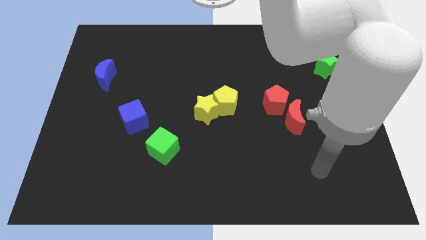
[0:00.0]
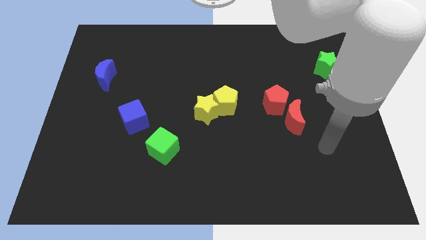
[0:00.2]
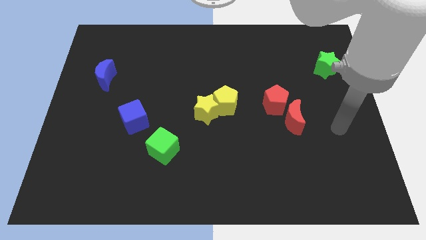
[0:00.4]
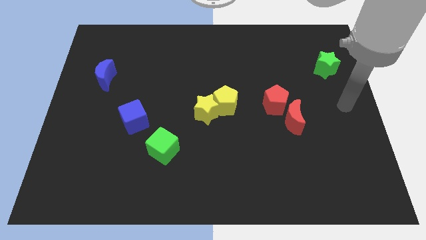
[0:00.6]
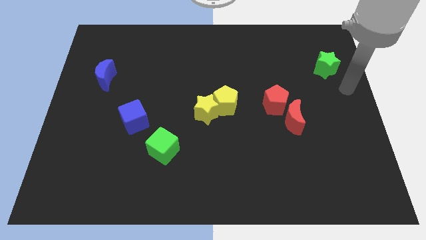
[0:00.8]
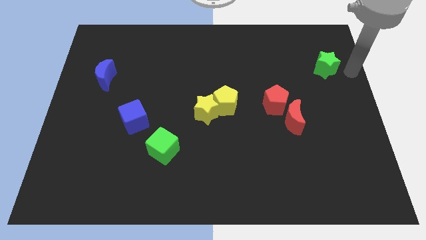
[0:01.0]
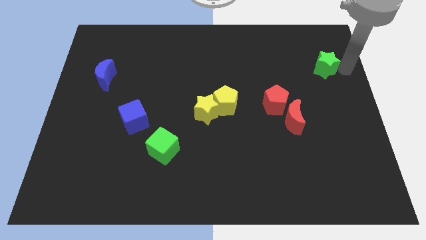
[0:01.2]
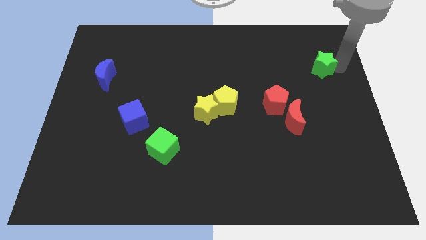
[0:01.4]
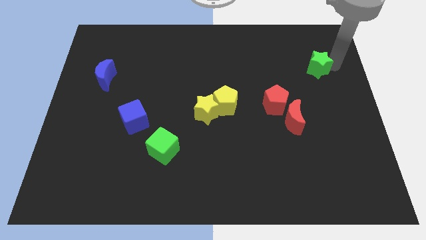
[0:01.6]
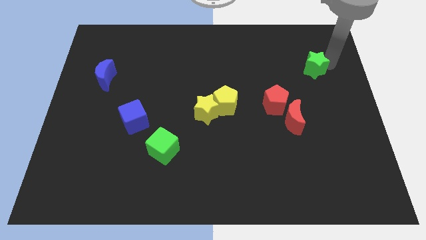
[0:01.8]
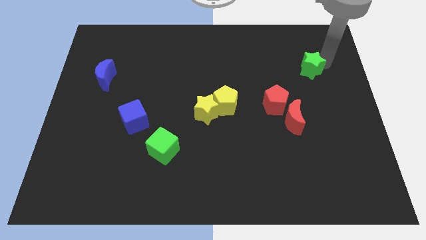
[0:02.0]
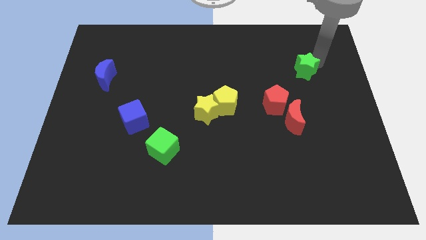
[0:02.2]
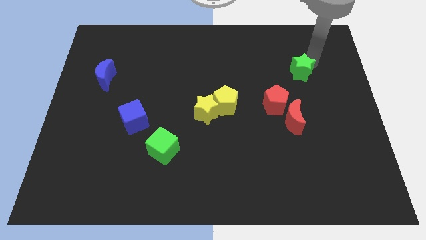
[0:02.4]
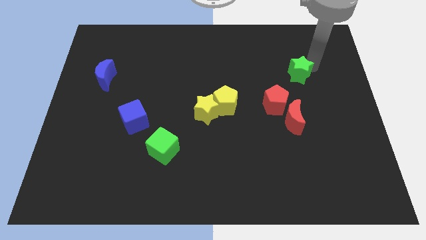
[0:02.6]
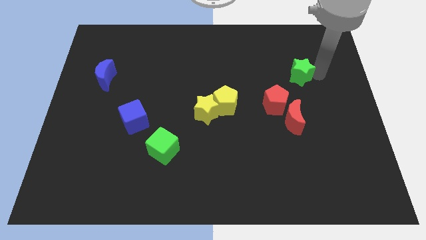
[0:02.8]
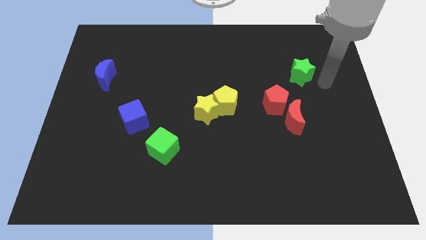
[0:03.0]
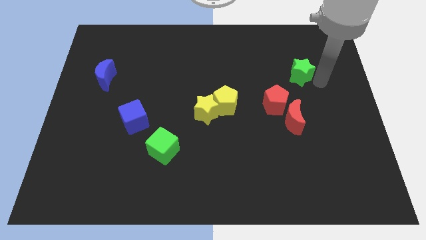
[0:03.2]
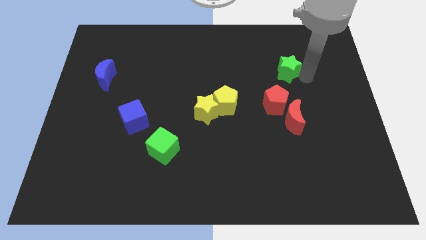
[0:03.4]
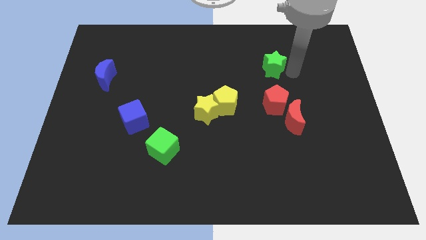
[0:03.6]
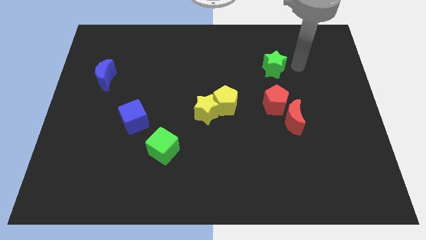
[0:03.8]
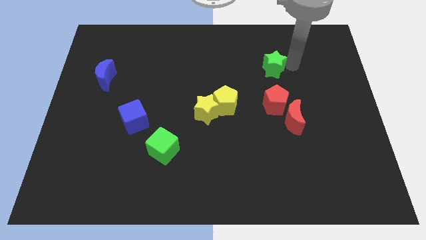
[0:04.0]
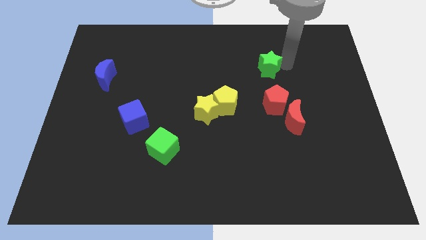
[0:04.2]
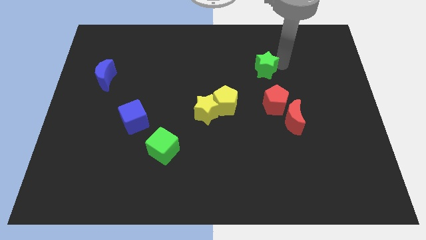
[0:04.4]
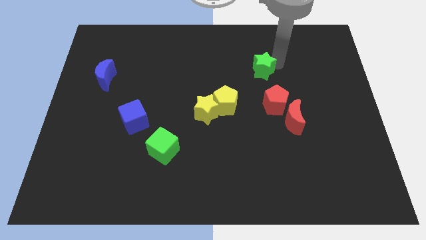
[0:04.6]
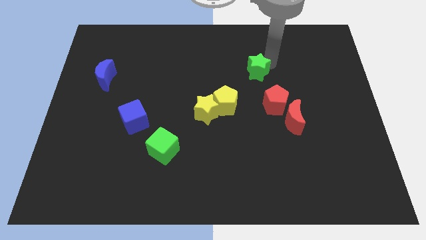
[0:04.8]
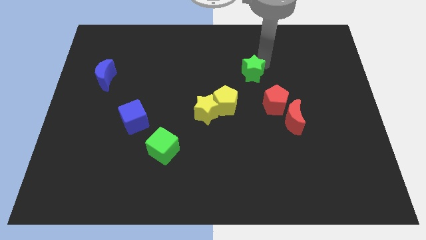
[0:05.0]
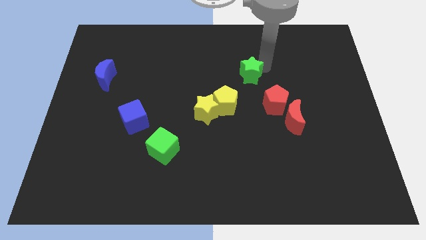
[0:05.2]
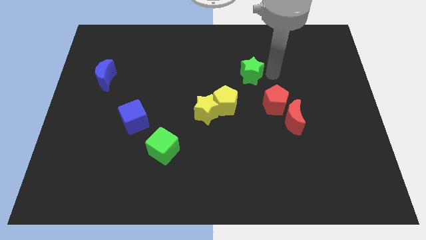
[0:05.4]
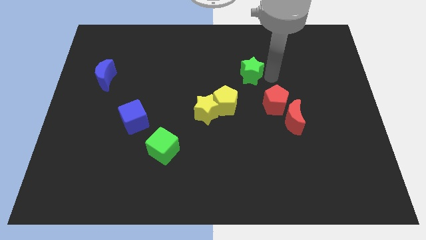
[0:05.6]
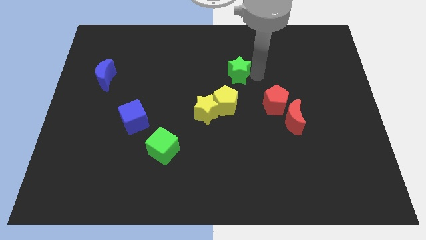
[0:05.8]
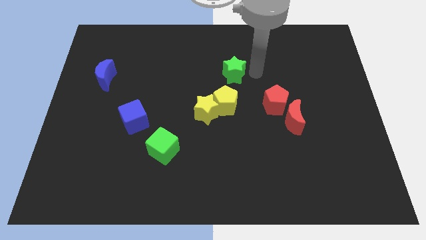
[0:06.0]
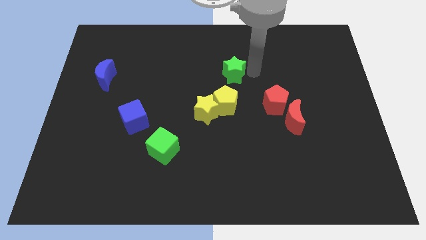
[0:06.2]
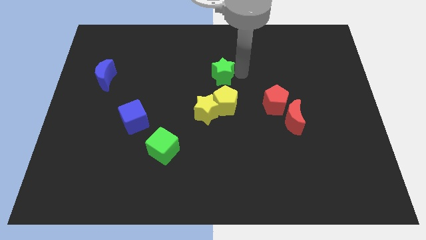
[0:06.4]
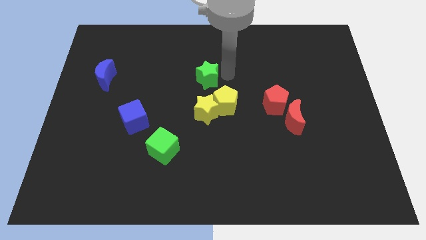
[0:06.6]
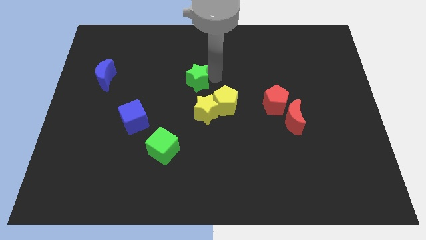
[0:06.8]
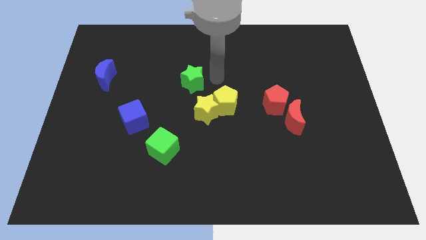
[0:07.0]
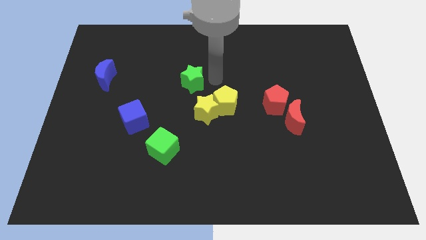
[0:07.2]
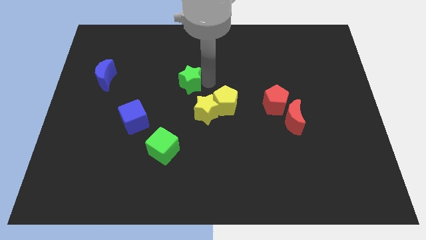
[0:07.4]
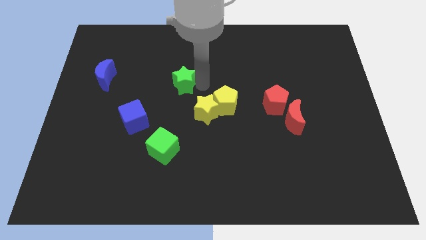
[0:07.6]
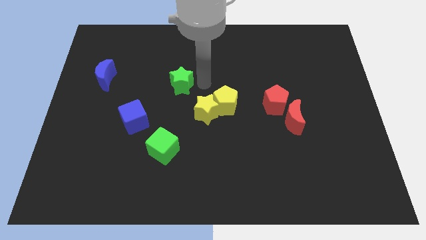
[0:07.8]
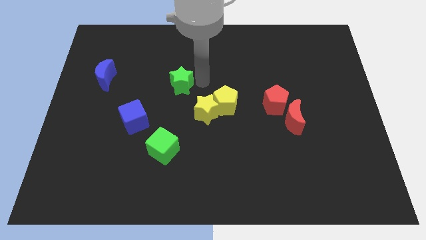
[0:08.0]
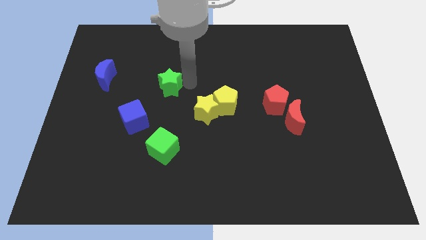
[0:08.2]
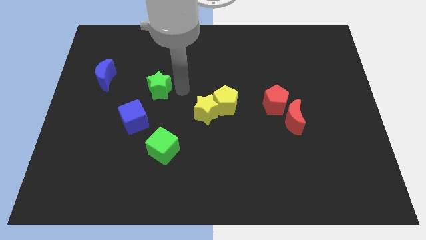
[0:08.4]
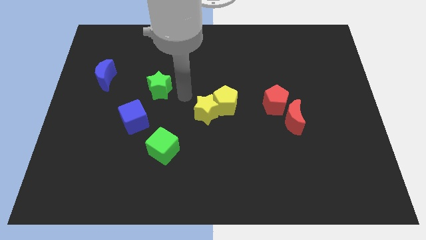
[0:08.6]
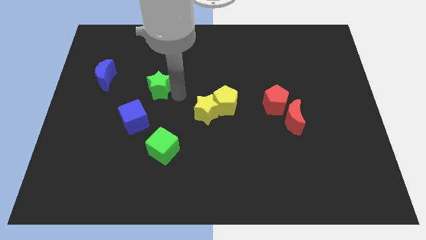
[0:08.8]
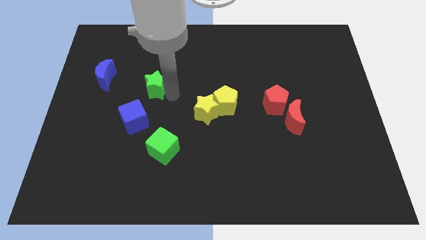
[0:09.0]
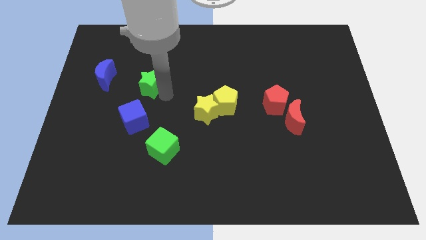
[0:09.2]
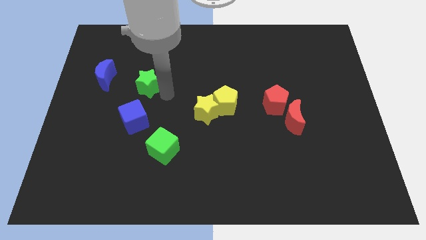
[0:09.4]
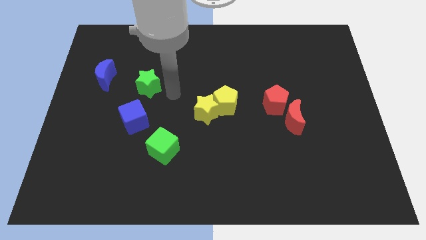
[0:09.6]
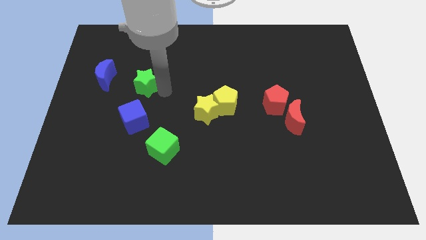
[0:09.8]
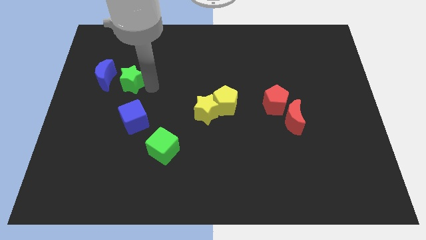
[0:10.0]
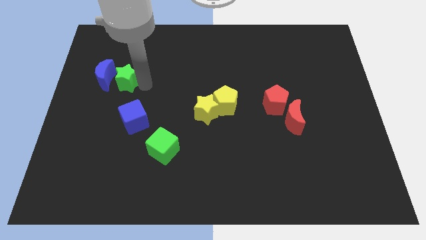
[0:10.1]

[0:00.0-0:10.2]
move the green star next to the blue moon

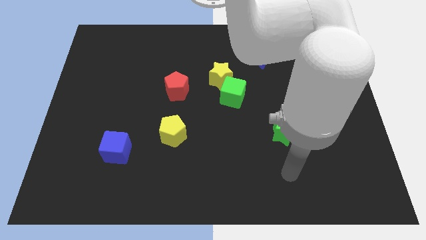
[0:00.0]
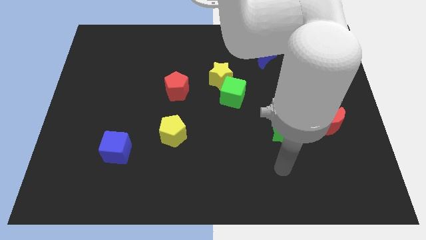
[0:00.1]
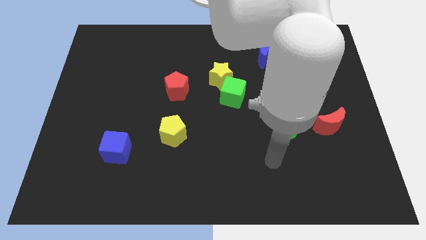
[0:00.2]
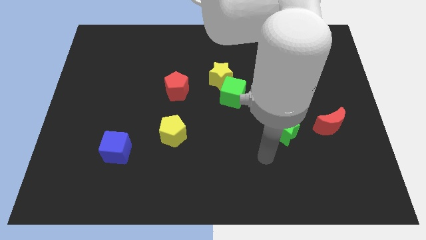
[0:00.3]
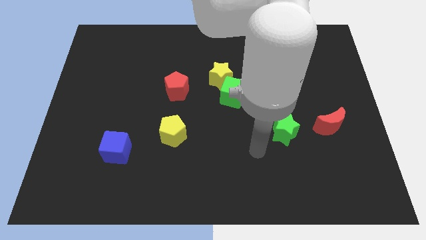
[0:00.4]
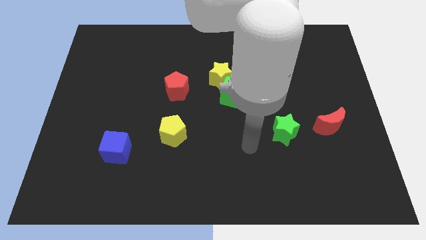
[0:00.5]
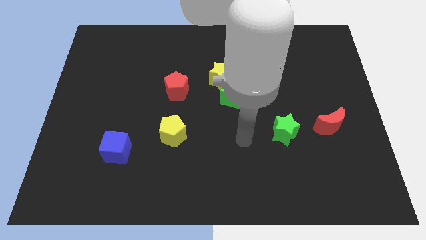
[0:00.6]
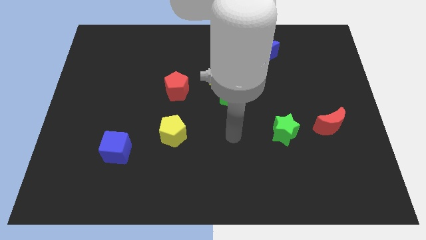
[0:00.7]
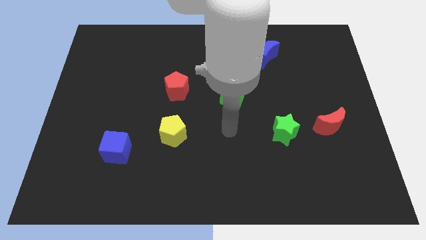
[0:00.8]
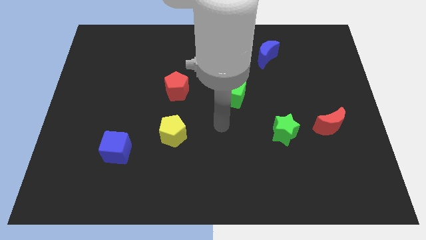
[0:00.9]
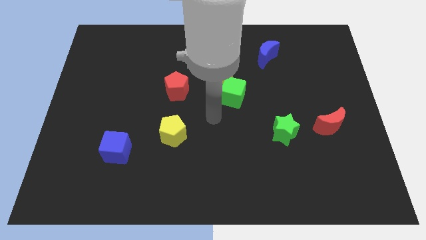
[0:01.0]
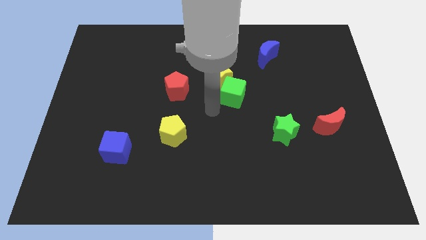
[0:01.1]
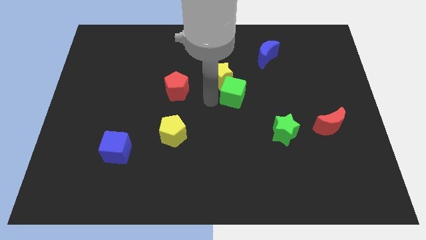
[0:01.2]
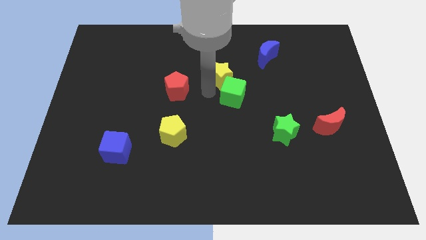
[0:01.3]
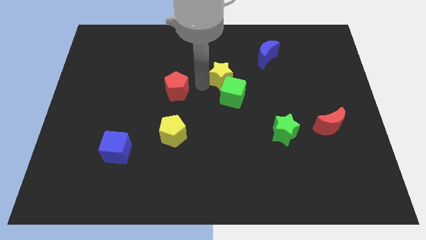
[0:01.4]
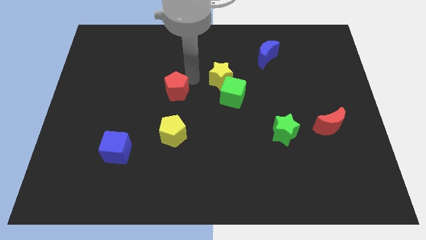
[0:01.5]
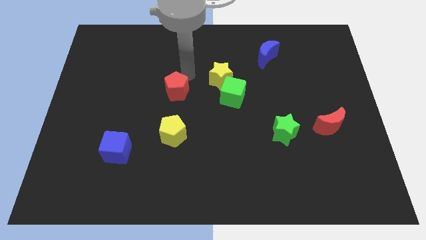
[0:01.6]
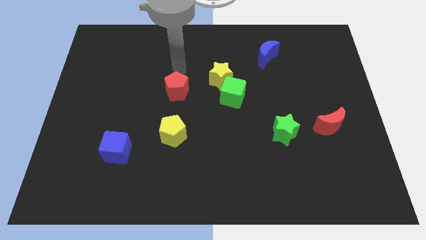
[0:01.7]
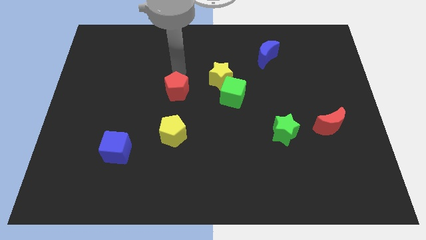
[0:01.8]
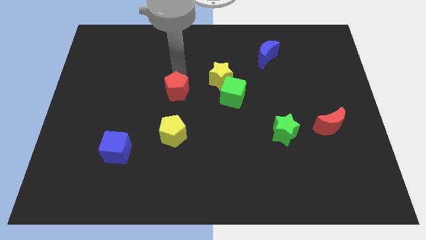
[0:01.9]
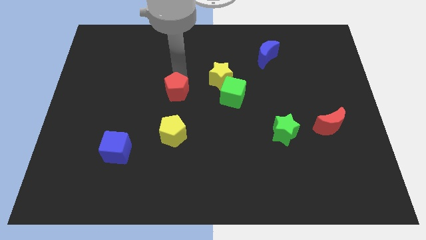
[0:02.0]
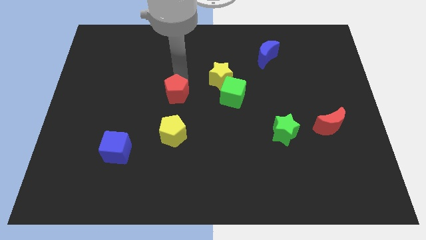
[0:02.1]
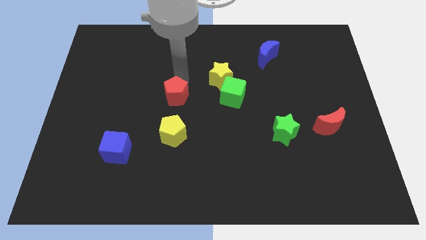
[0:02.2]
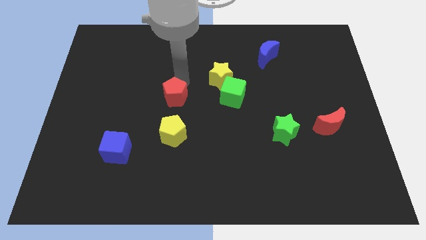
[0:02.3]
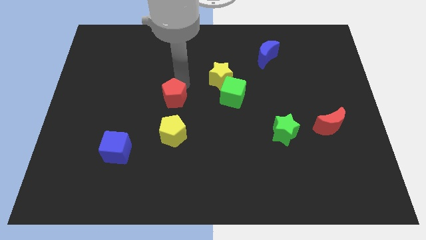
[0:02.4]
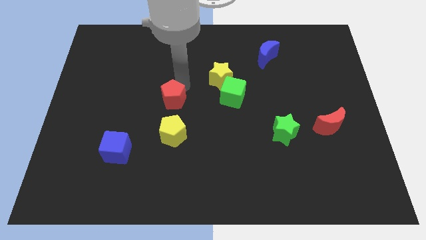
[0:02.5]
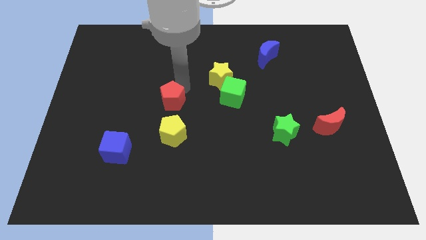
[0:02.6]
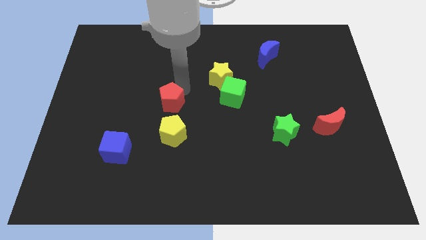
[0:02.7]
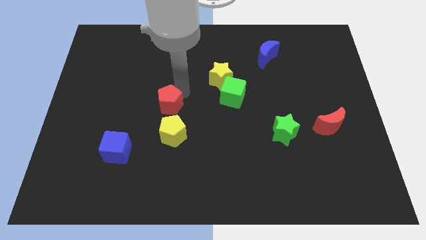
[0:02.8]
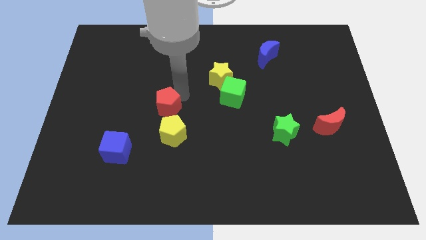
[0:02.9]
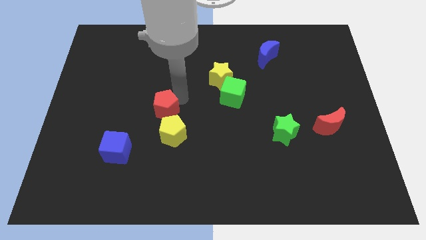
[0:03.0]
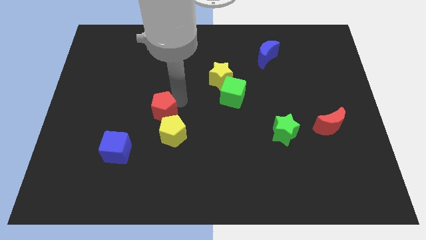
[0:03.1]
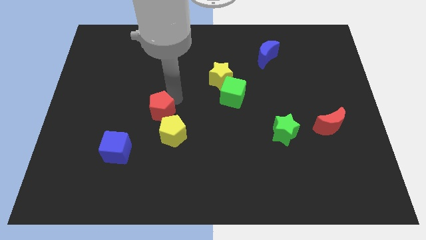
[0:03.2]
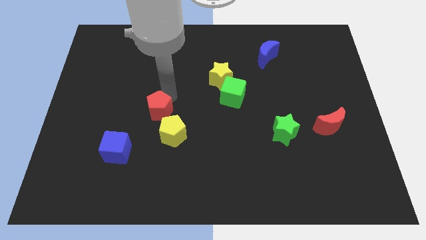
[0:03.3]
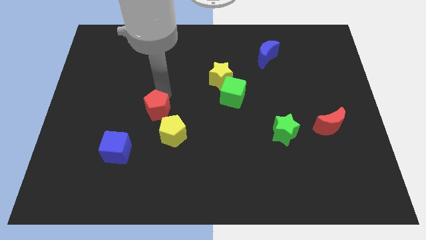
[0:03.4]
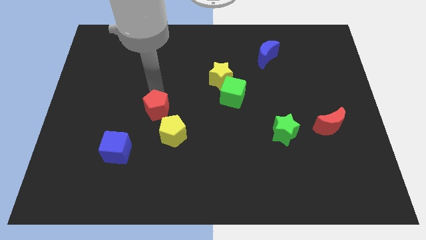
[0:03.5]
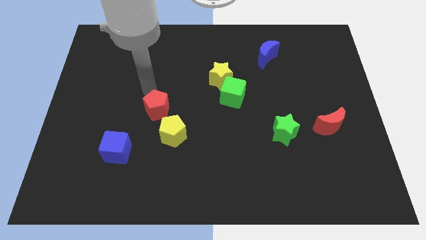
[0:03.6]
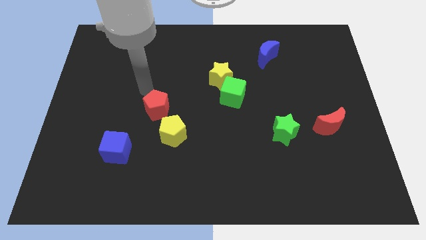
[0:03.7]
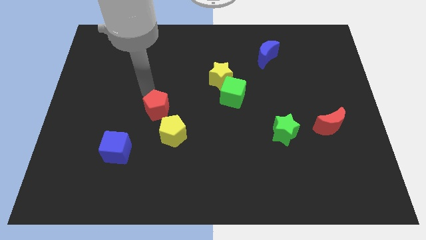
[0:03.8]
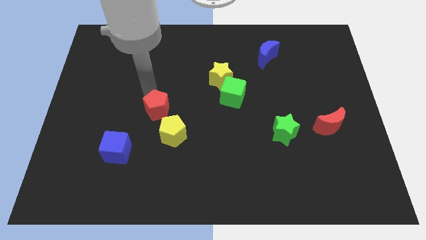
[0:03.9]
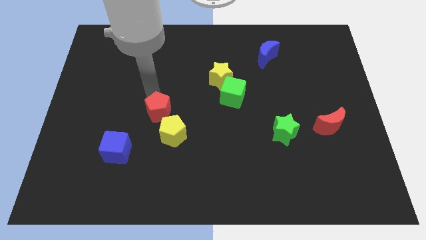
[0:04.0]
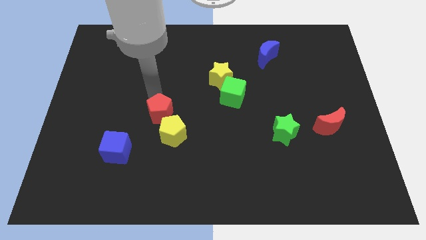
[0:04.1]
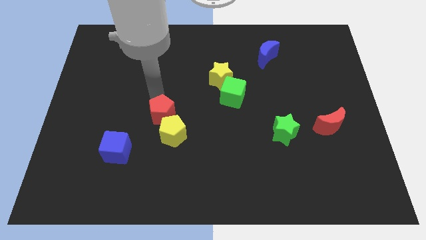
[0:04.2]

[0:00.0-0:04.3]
move the red pentagon close to the yellow pentagon
